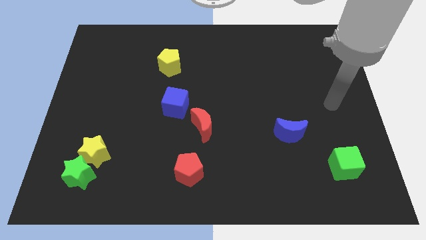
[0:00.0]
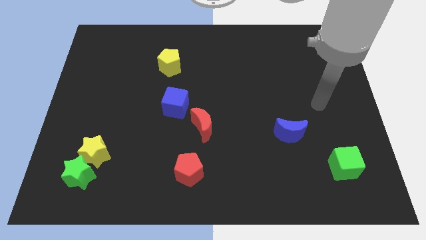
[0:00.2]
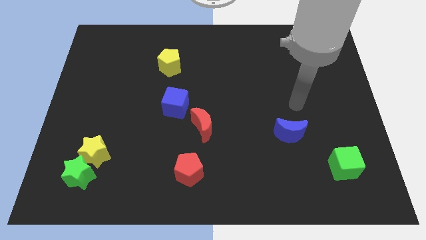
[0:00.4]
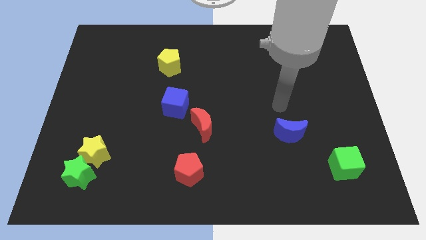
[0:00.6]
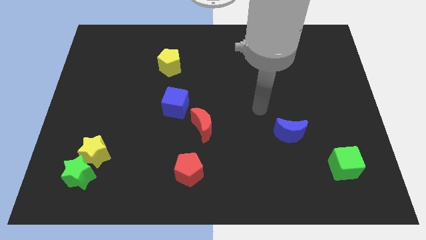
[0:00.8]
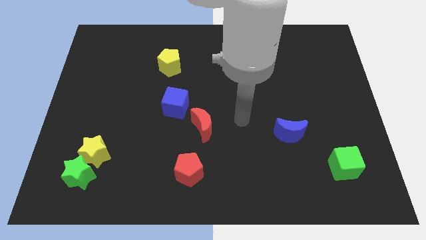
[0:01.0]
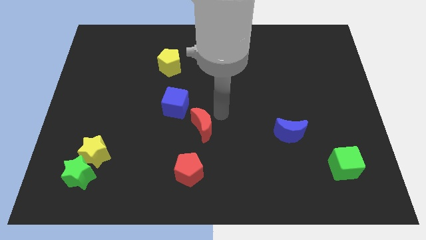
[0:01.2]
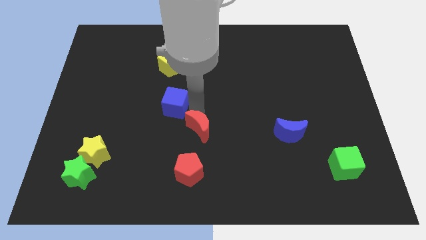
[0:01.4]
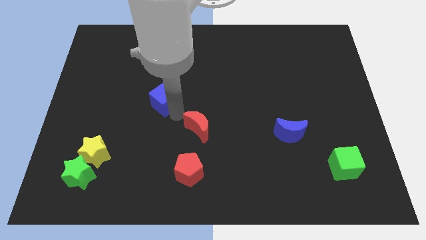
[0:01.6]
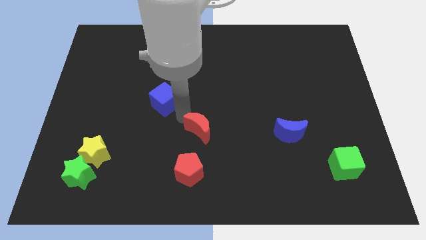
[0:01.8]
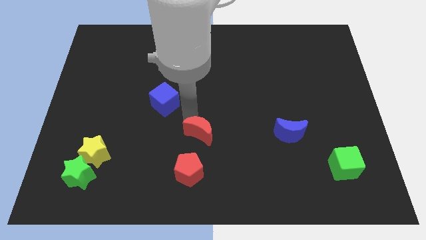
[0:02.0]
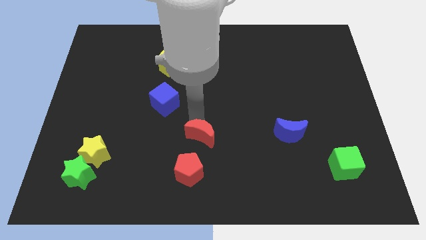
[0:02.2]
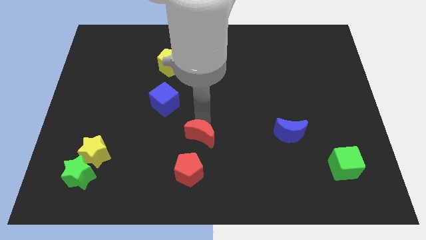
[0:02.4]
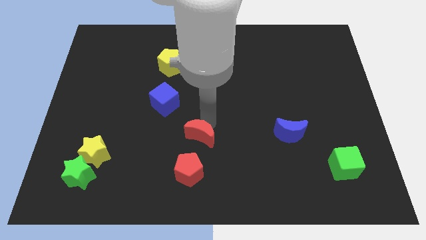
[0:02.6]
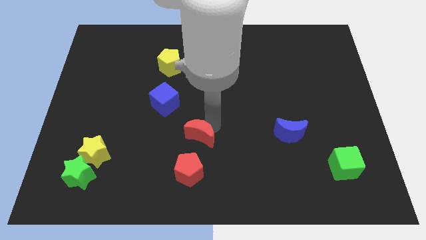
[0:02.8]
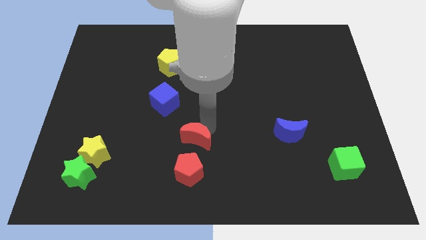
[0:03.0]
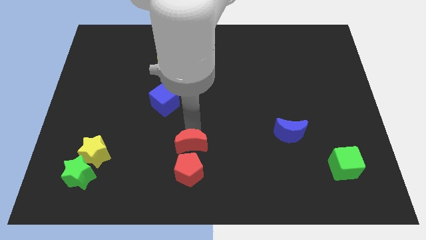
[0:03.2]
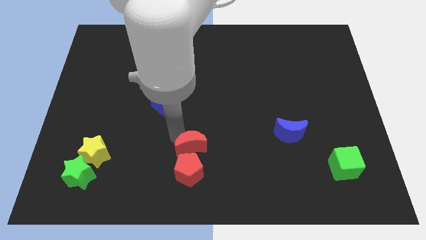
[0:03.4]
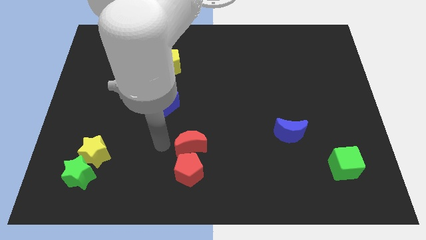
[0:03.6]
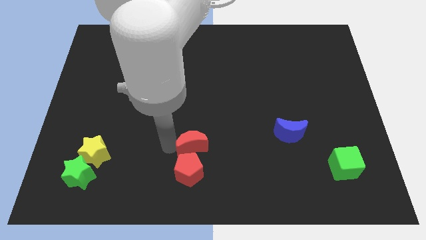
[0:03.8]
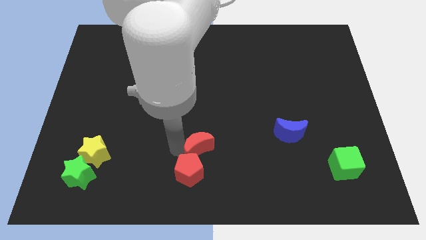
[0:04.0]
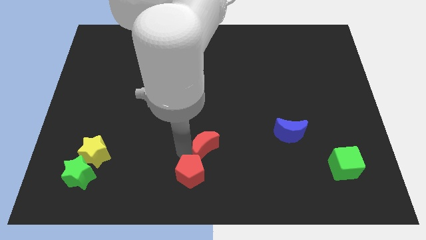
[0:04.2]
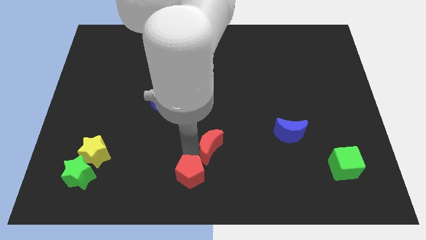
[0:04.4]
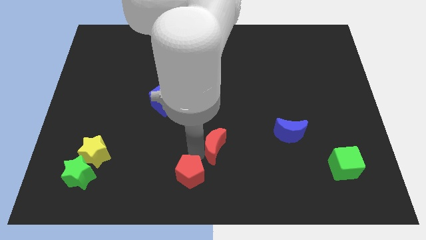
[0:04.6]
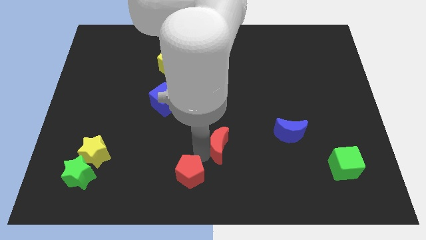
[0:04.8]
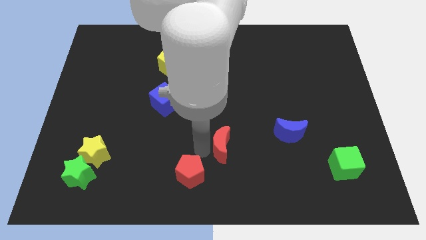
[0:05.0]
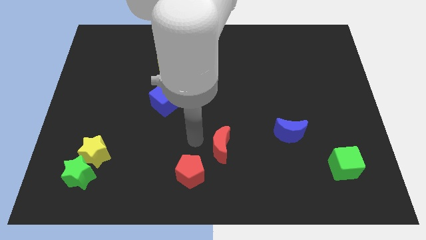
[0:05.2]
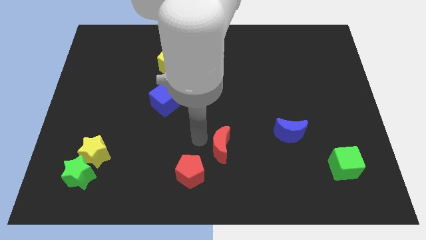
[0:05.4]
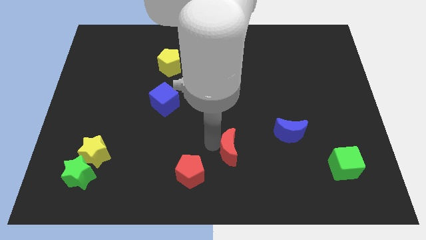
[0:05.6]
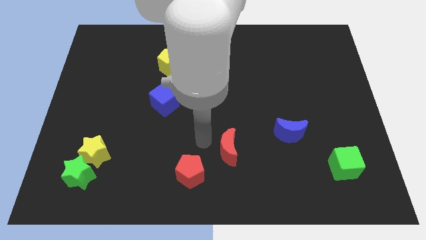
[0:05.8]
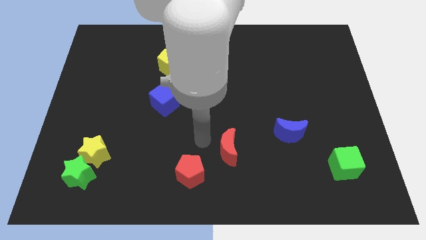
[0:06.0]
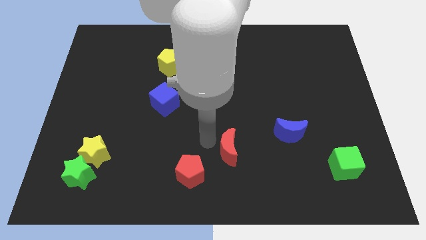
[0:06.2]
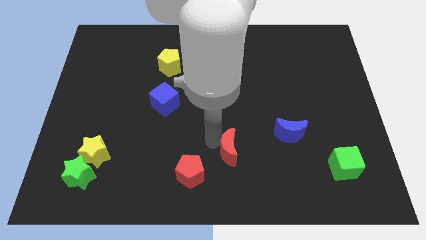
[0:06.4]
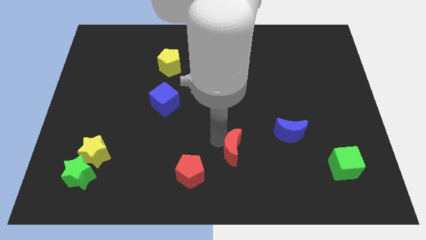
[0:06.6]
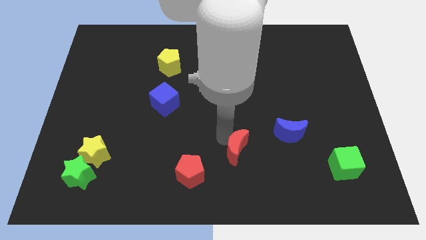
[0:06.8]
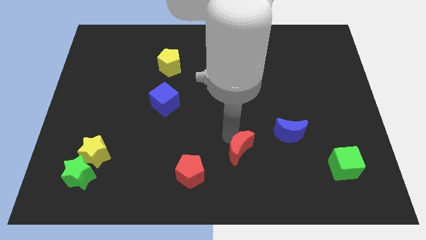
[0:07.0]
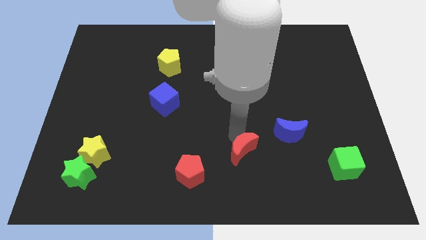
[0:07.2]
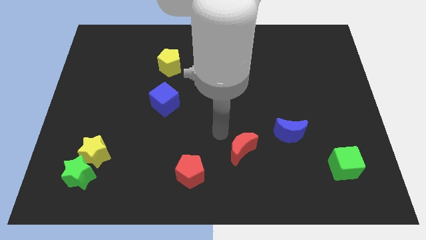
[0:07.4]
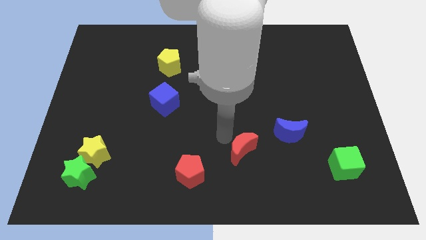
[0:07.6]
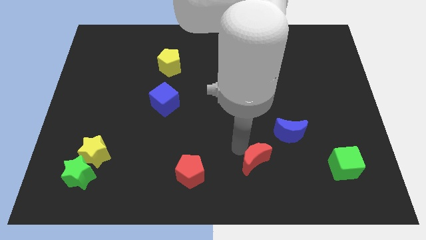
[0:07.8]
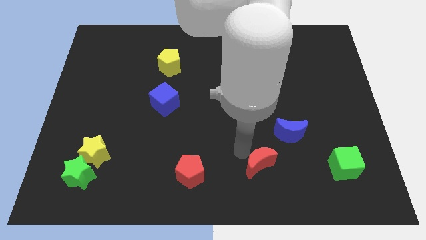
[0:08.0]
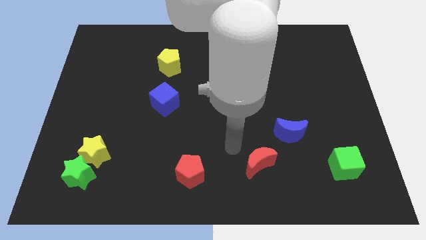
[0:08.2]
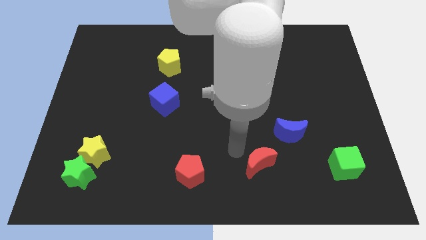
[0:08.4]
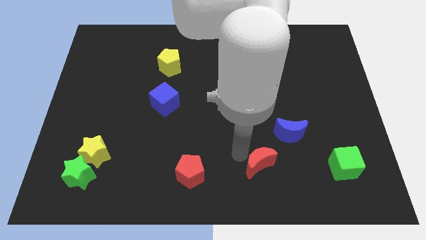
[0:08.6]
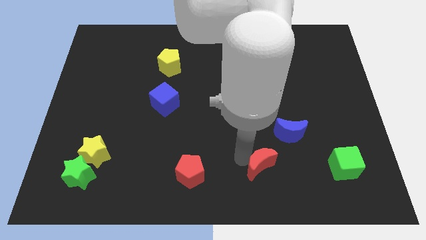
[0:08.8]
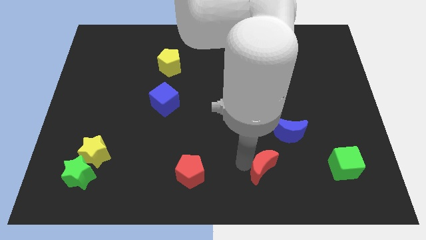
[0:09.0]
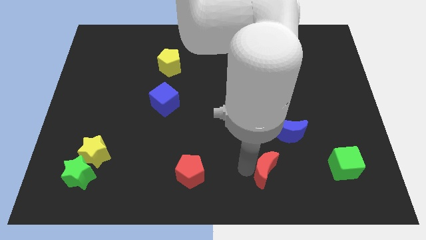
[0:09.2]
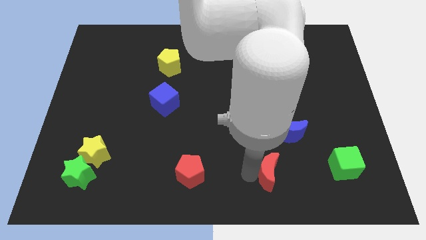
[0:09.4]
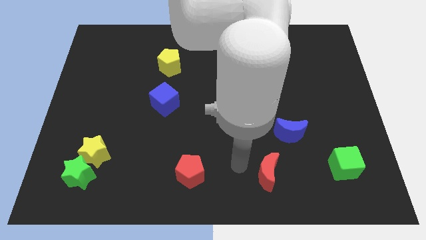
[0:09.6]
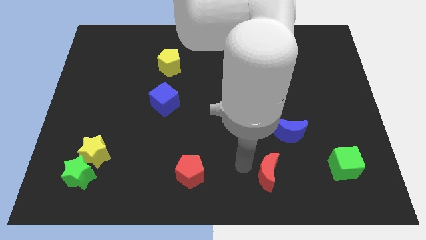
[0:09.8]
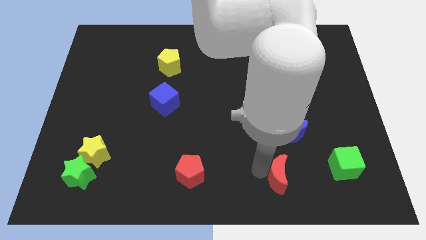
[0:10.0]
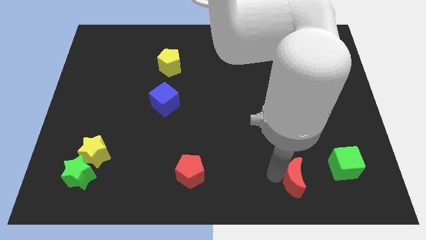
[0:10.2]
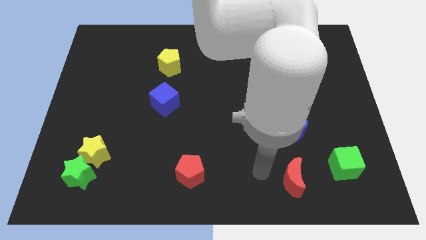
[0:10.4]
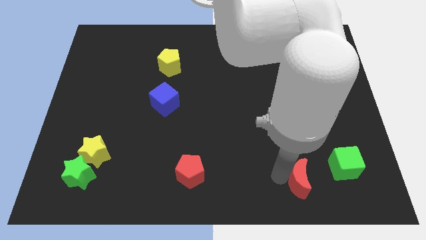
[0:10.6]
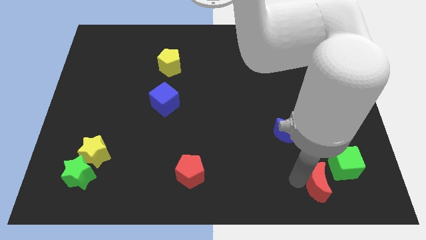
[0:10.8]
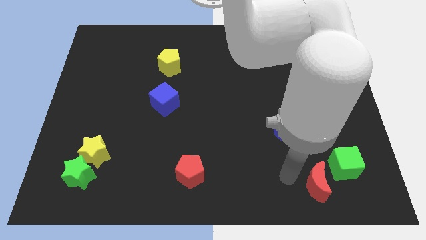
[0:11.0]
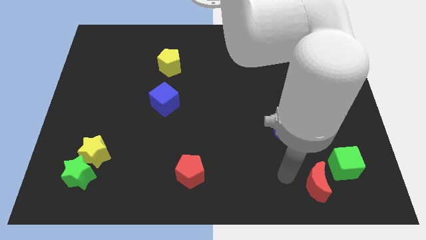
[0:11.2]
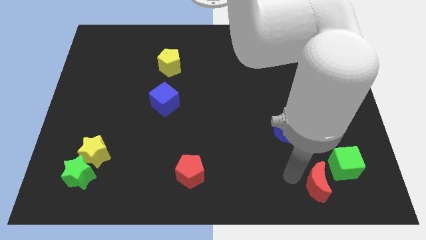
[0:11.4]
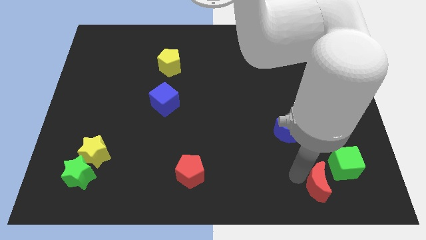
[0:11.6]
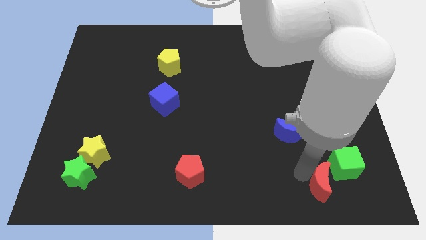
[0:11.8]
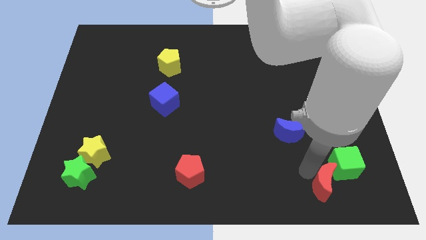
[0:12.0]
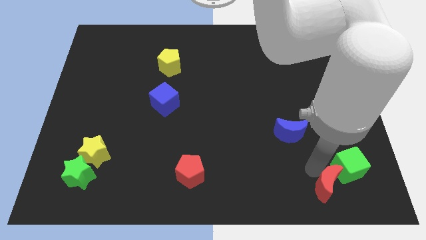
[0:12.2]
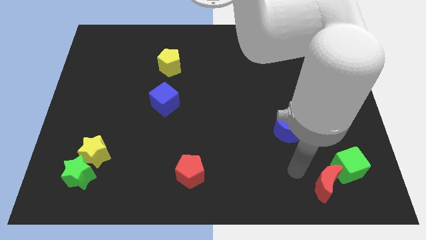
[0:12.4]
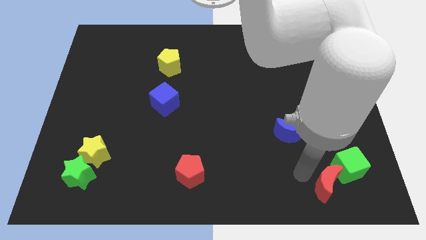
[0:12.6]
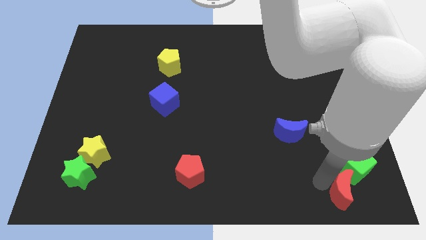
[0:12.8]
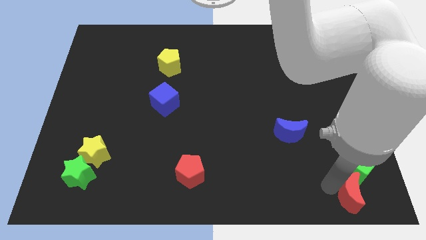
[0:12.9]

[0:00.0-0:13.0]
slide the red moon to the bottom right of the board
